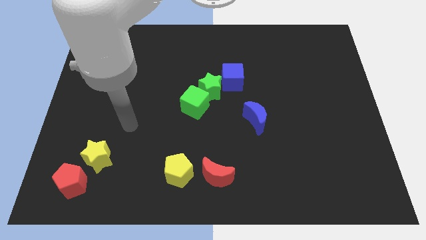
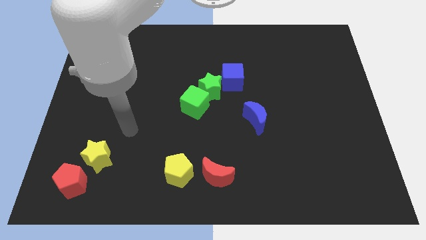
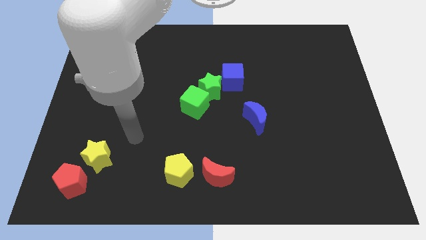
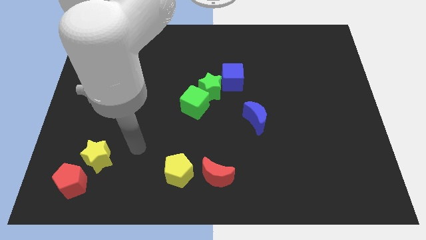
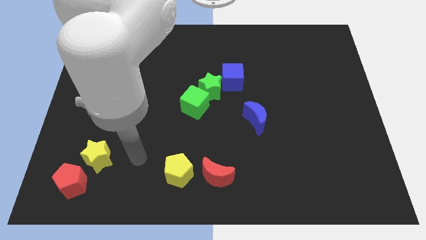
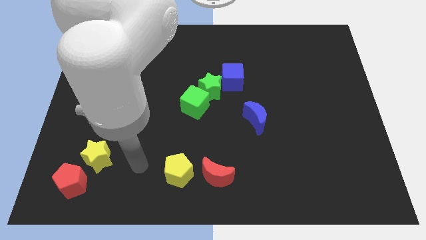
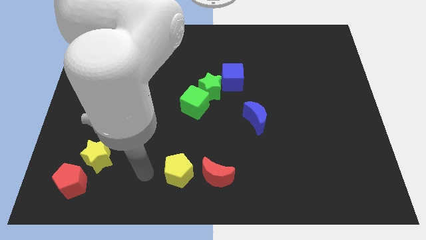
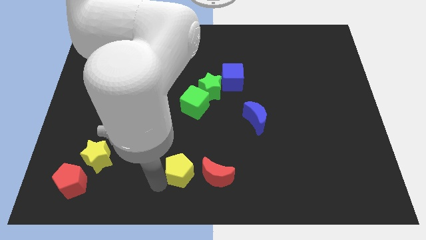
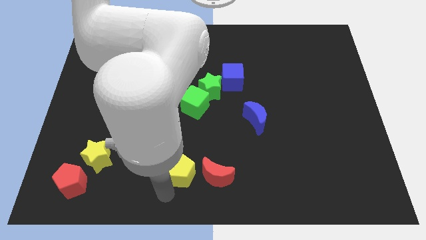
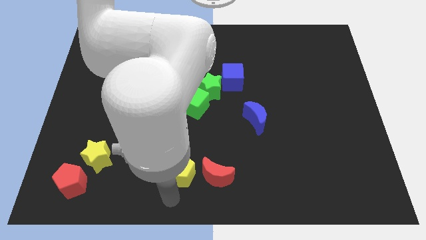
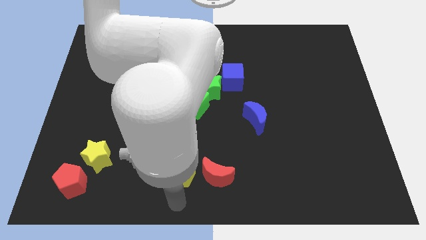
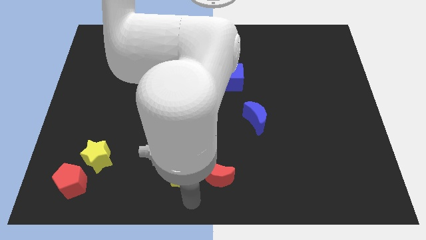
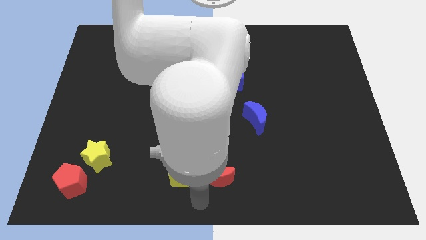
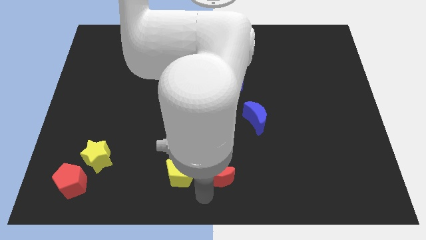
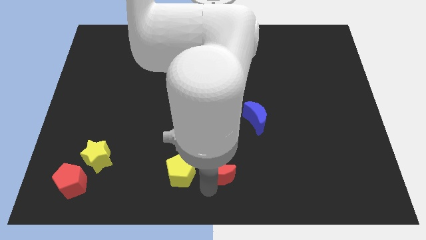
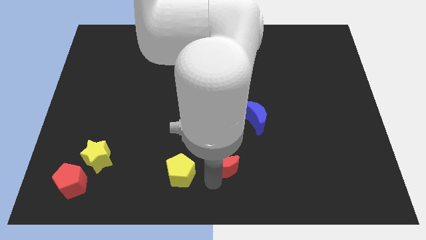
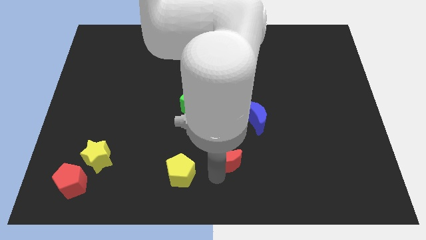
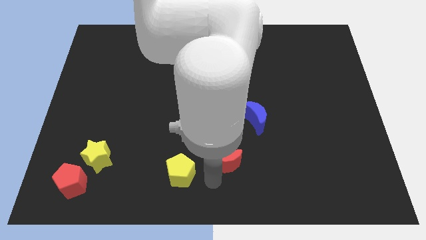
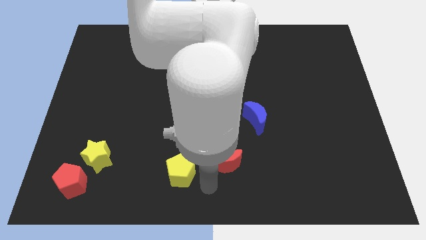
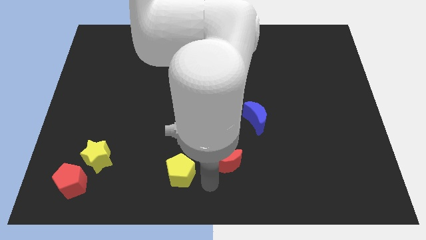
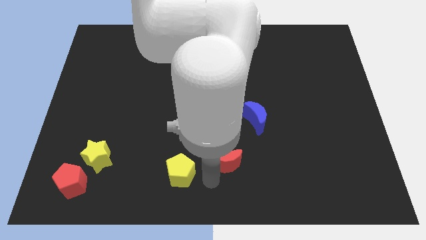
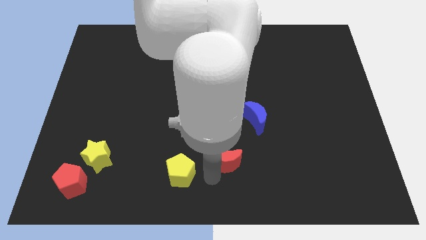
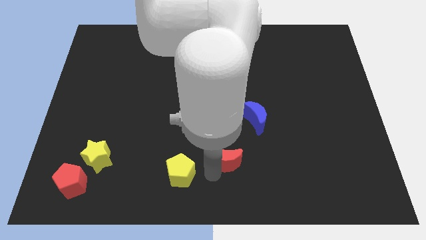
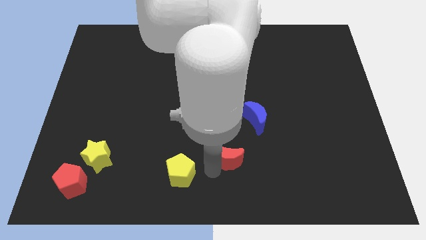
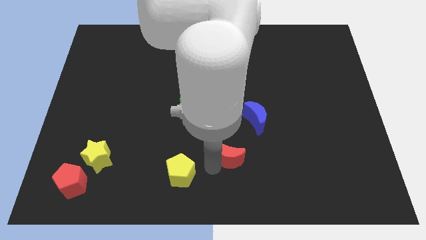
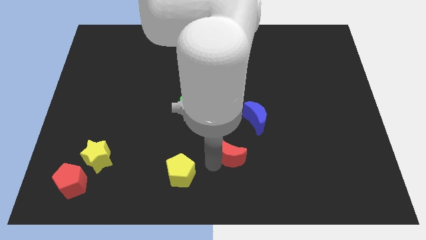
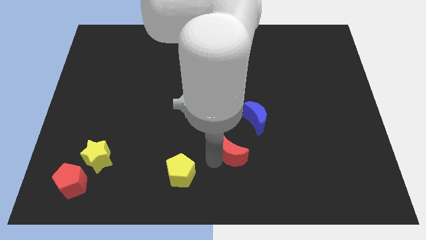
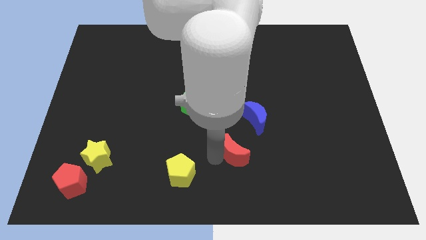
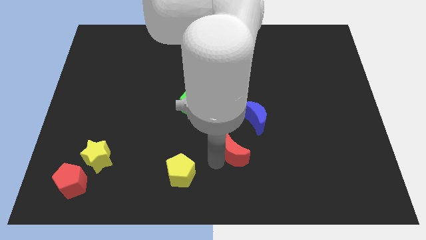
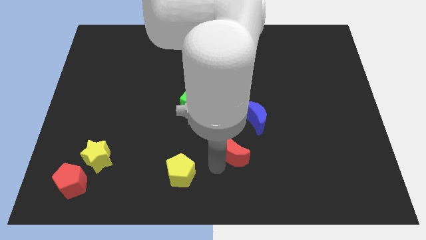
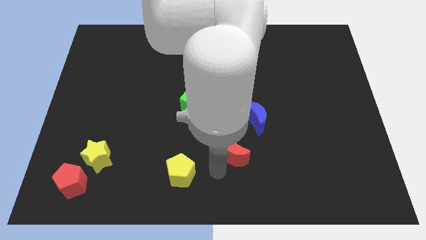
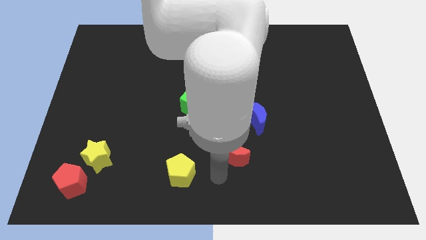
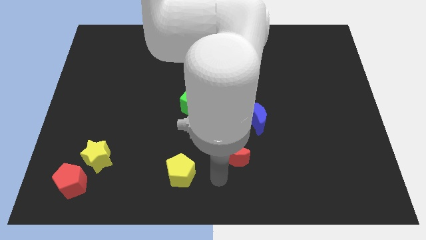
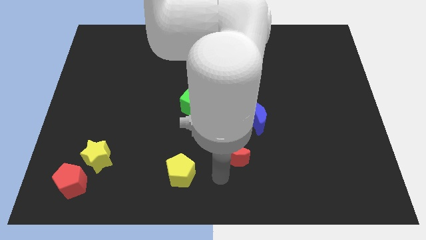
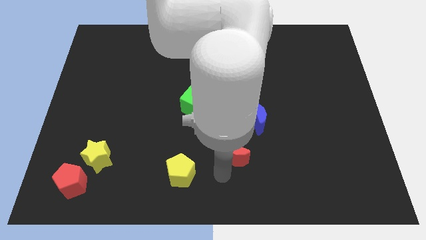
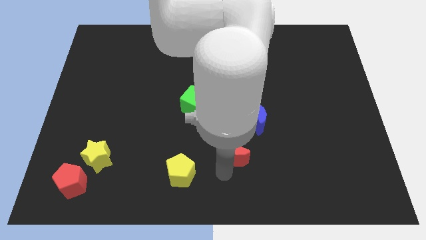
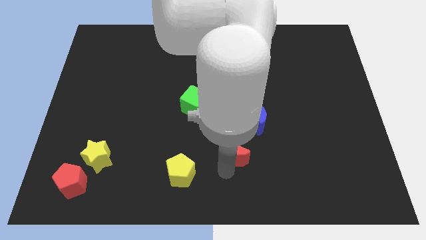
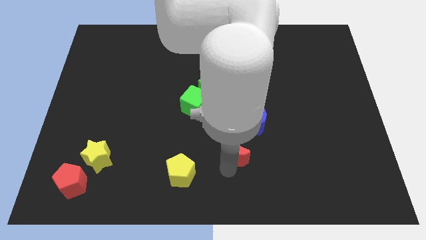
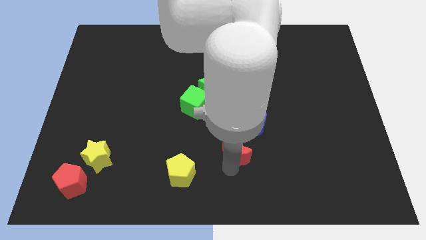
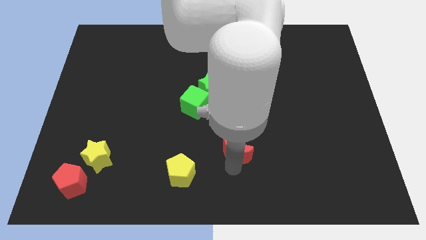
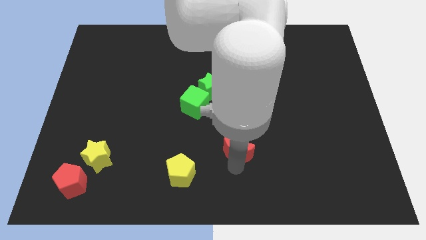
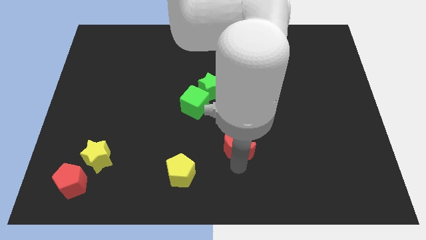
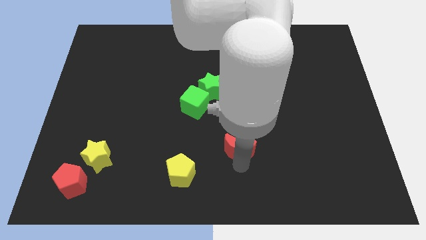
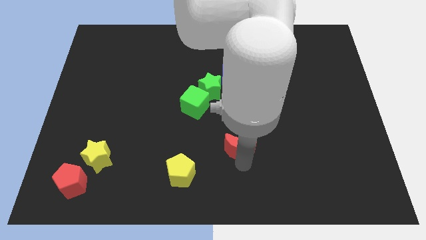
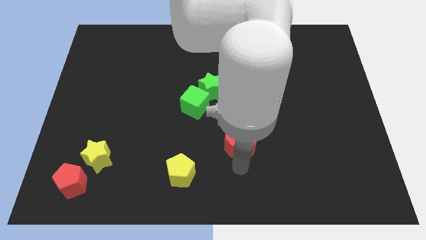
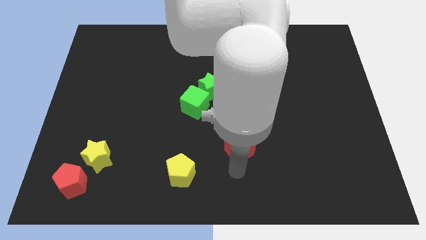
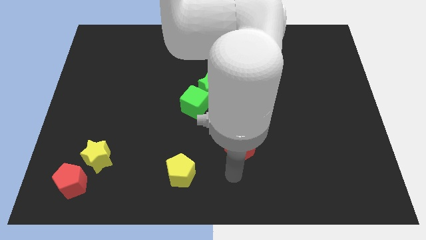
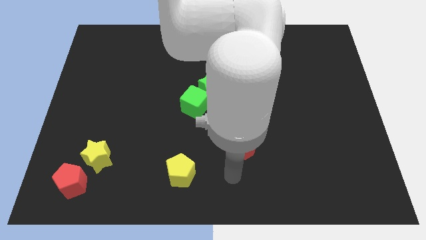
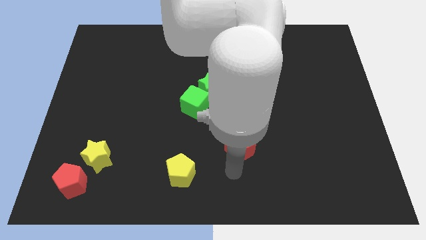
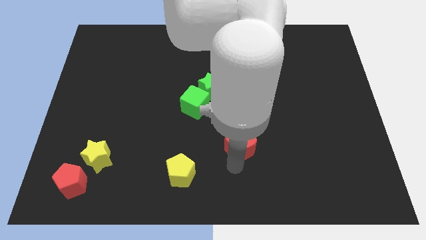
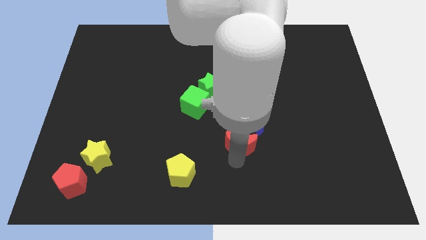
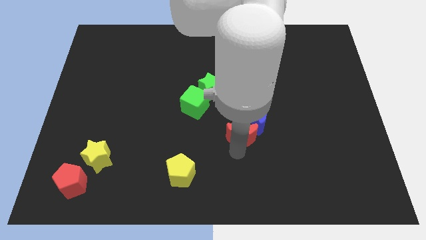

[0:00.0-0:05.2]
move the red moon next to the blue moon

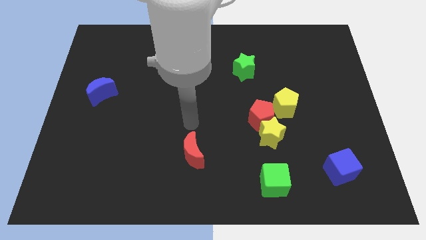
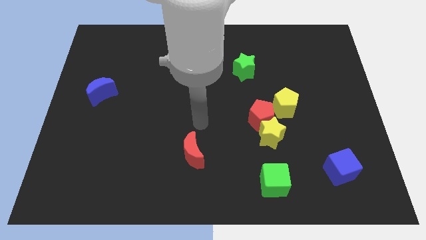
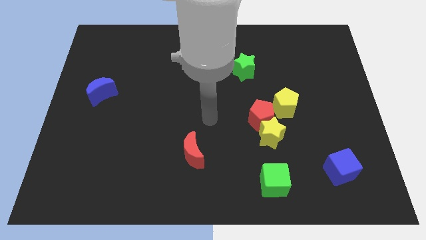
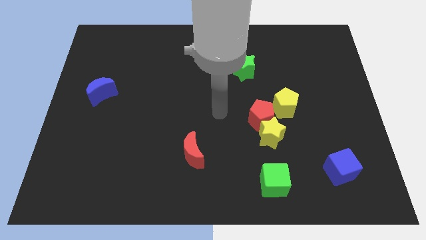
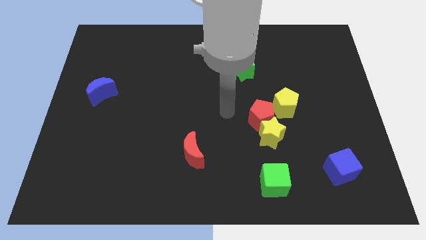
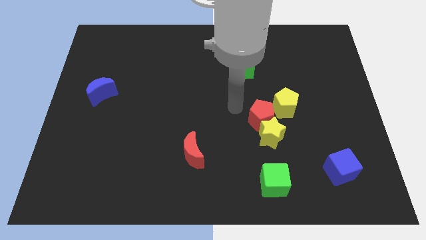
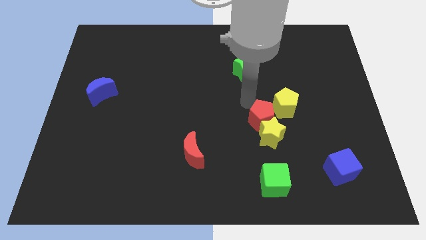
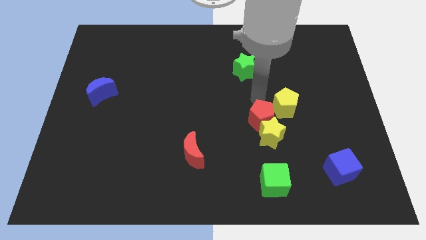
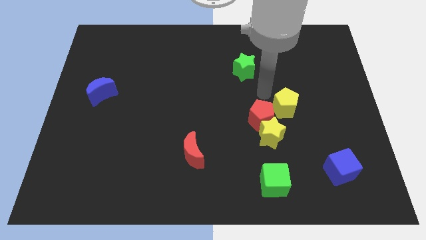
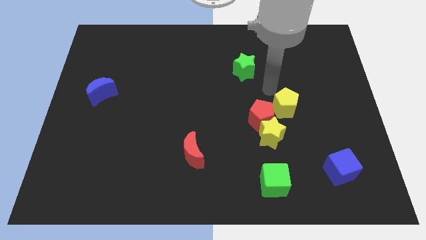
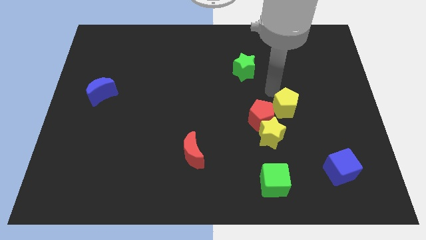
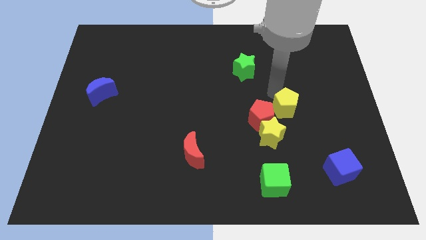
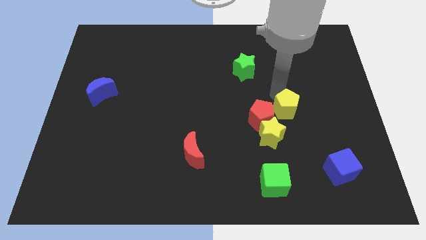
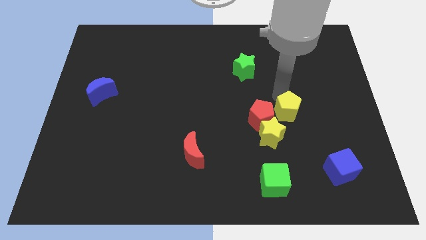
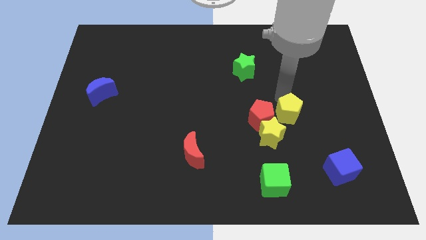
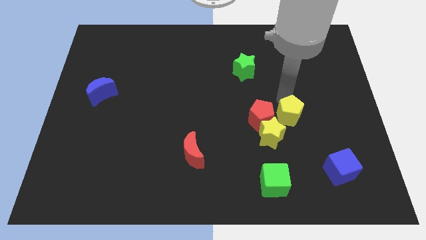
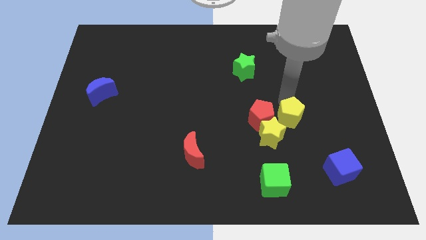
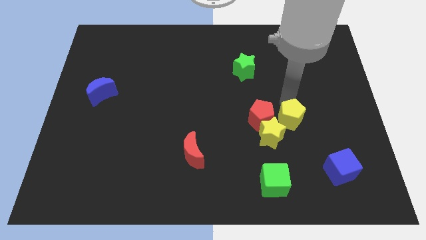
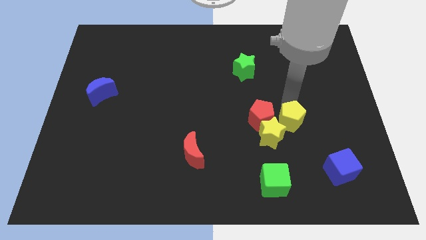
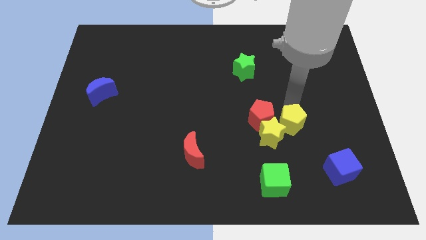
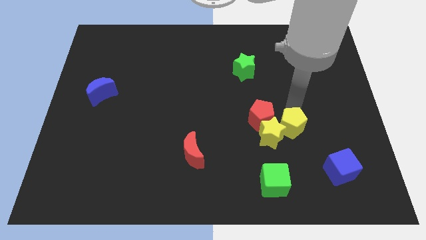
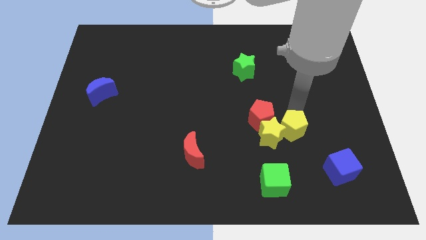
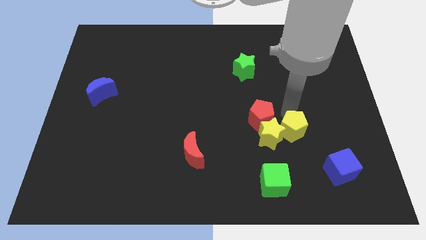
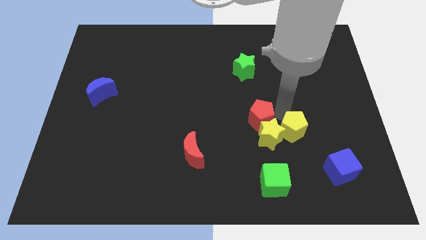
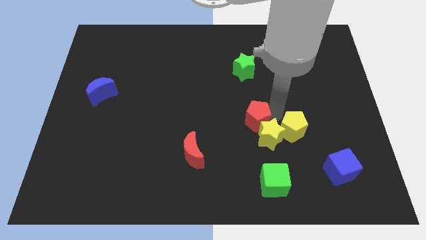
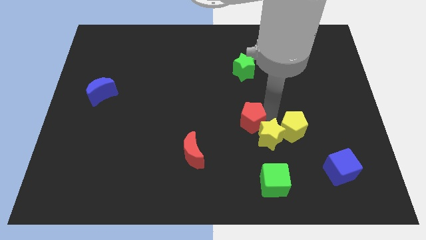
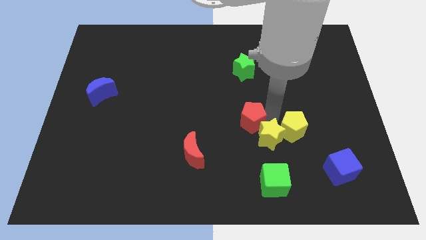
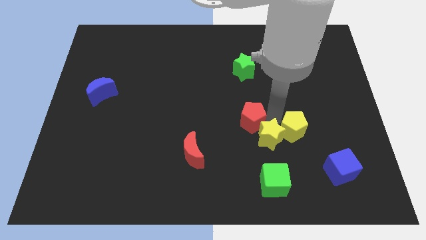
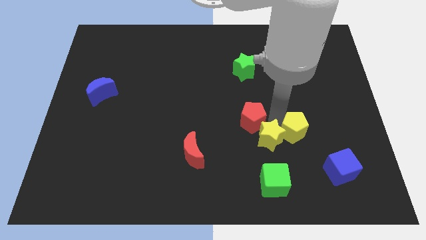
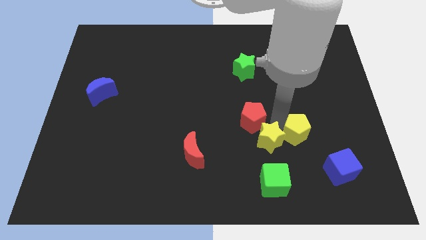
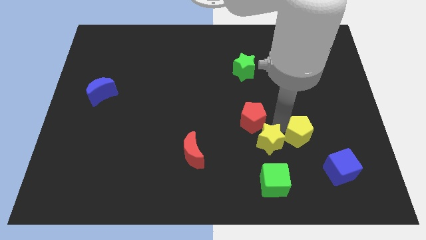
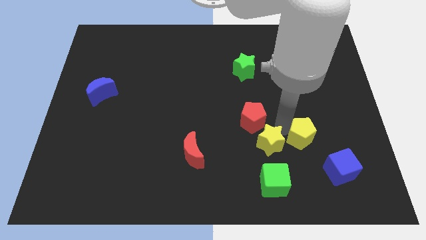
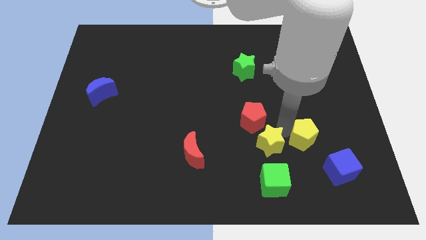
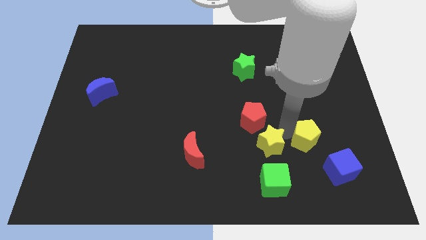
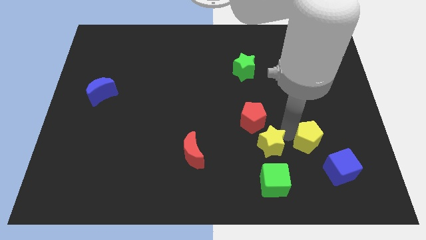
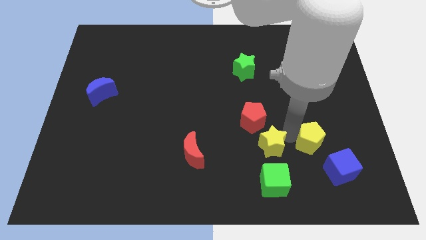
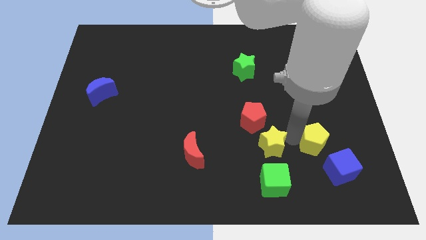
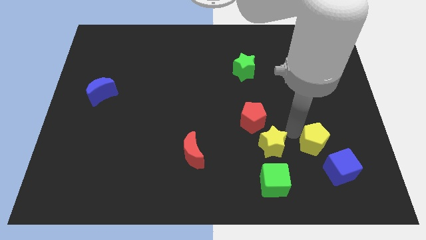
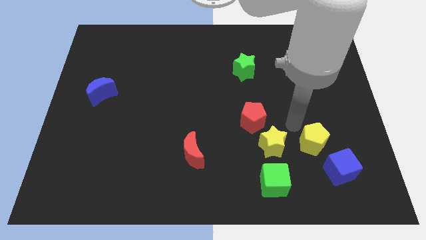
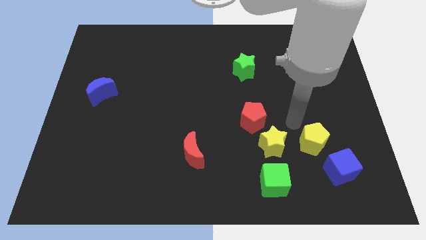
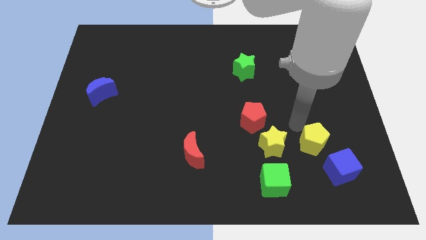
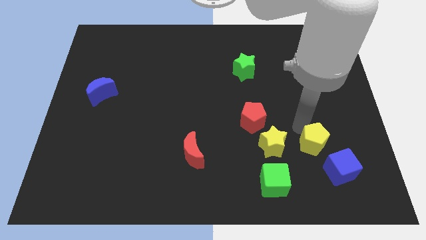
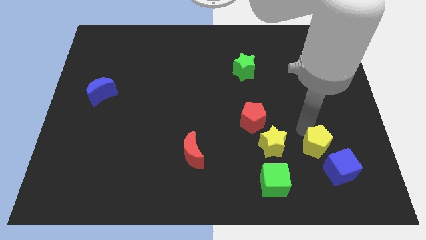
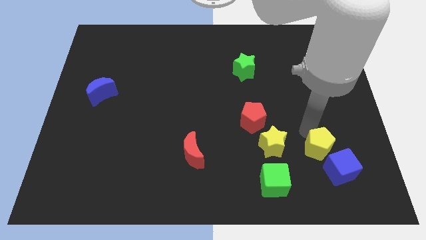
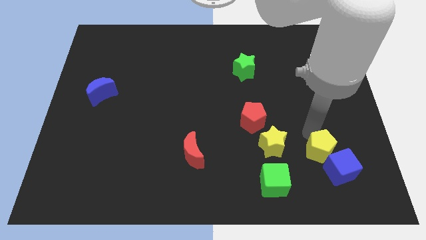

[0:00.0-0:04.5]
move the yellow pentagon towards the blue cube
